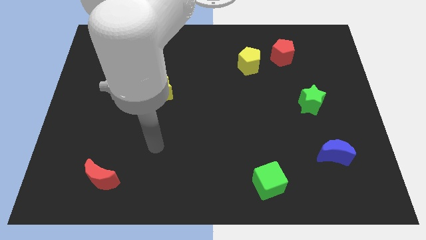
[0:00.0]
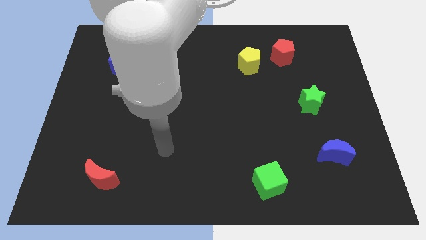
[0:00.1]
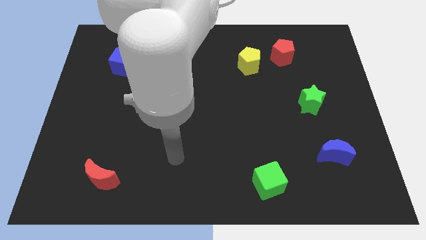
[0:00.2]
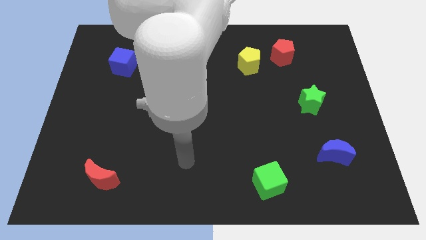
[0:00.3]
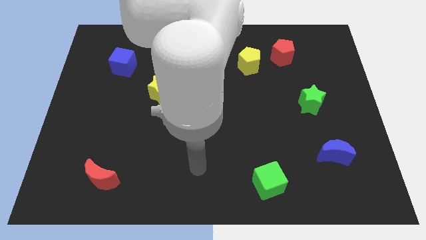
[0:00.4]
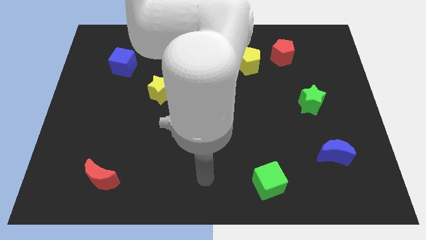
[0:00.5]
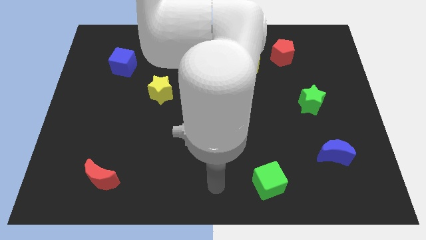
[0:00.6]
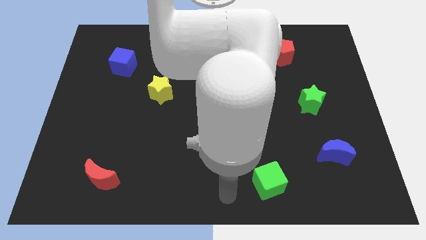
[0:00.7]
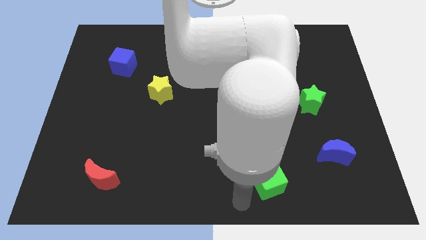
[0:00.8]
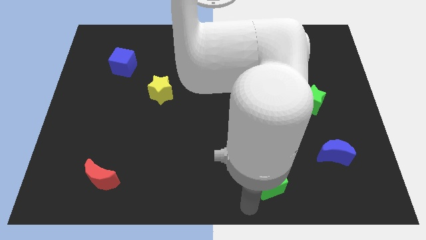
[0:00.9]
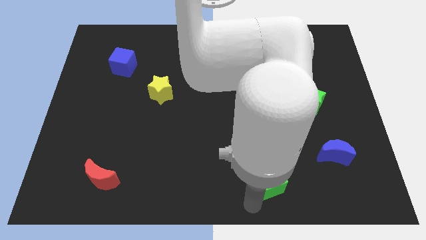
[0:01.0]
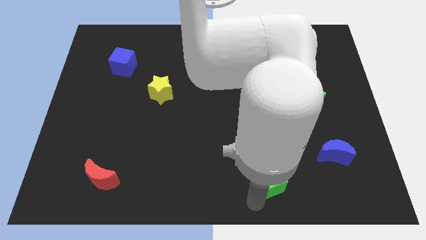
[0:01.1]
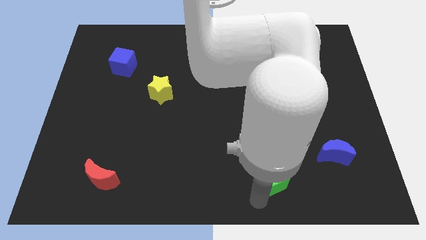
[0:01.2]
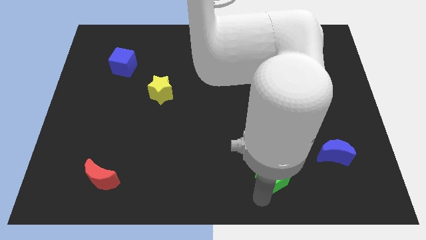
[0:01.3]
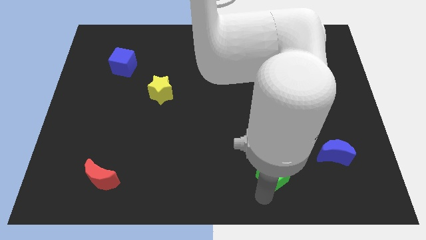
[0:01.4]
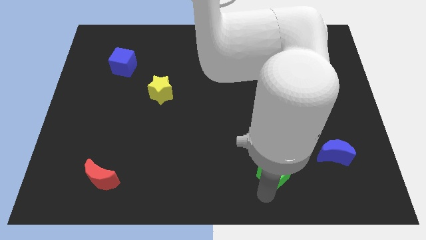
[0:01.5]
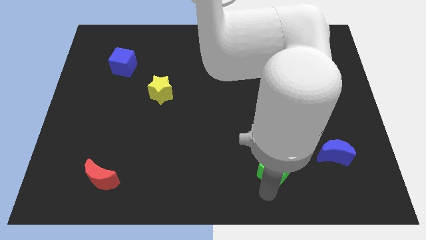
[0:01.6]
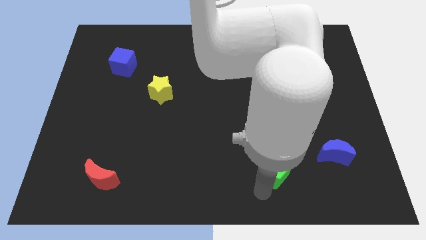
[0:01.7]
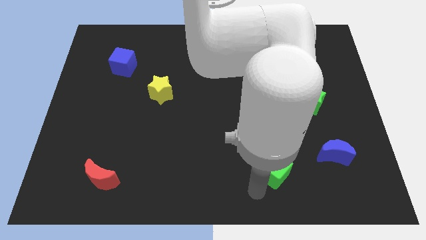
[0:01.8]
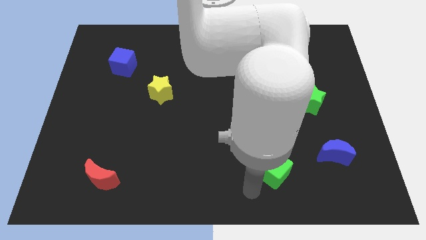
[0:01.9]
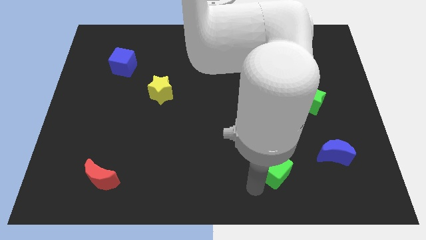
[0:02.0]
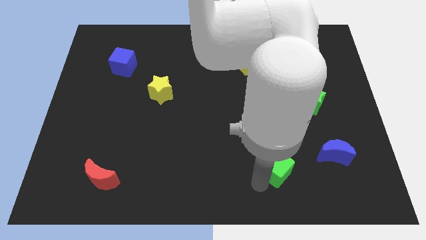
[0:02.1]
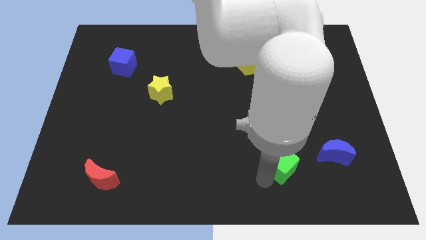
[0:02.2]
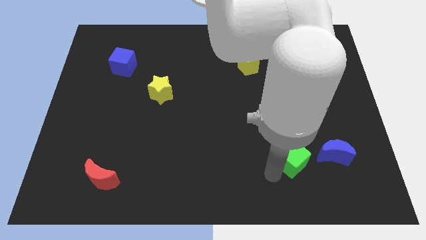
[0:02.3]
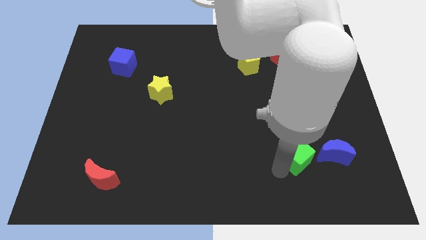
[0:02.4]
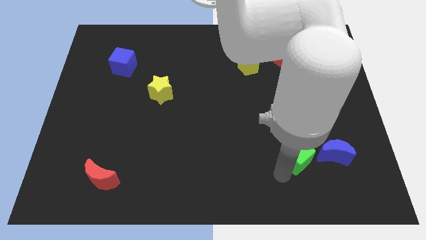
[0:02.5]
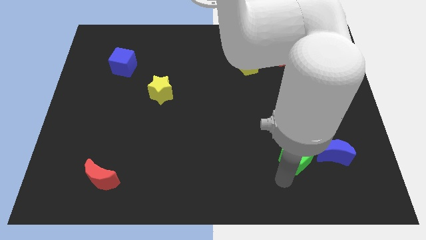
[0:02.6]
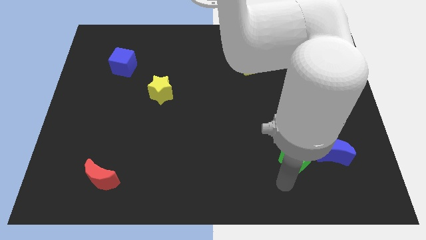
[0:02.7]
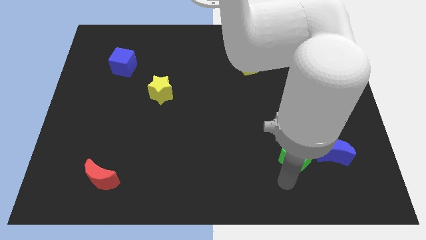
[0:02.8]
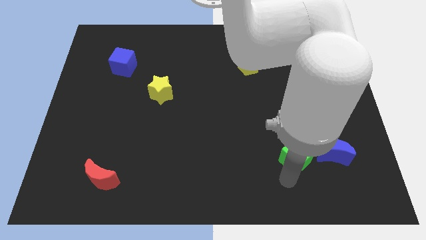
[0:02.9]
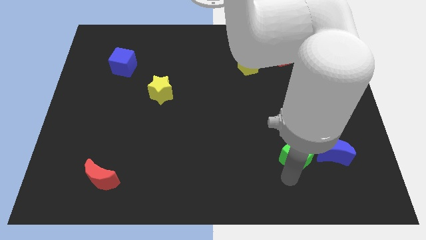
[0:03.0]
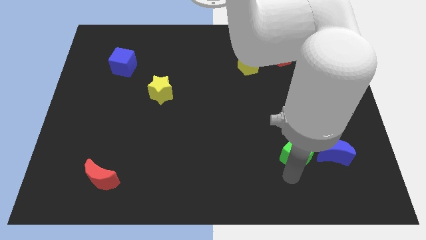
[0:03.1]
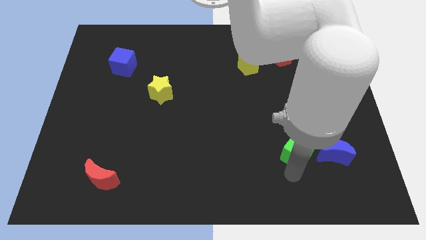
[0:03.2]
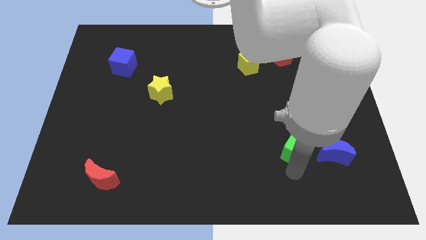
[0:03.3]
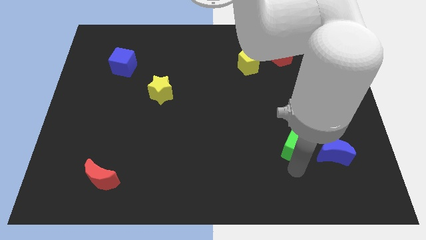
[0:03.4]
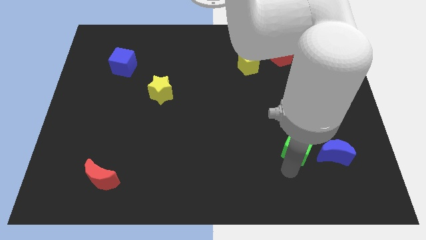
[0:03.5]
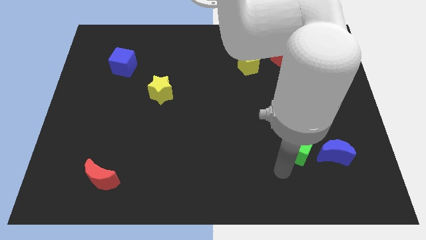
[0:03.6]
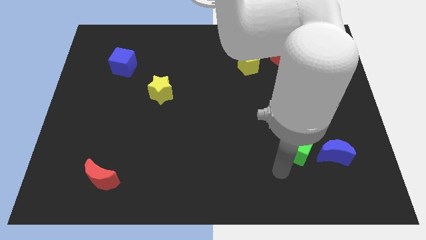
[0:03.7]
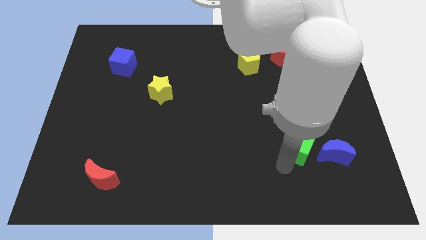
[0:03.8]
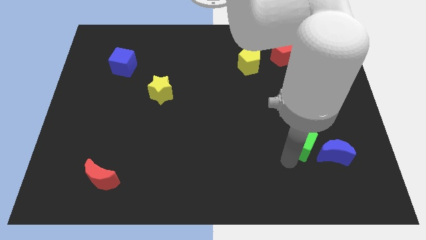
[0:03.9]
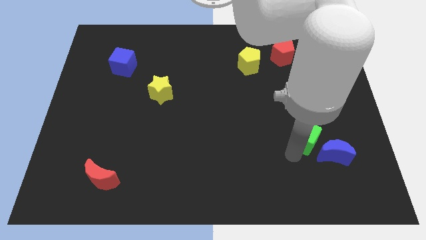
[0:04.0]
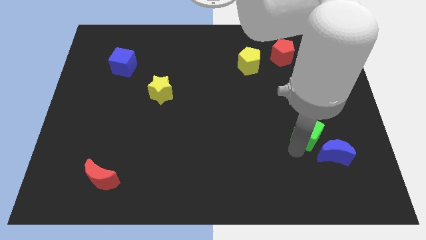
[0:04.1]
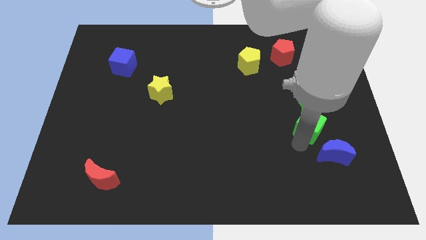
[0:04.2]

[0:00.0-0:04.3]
move the green cube above the blue moon

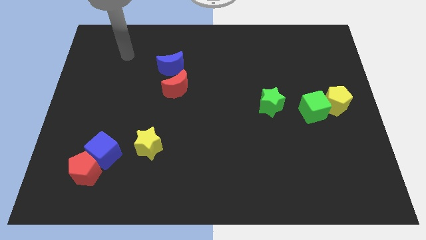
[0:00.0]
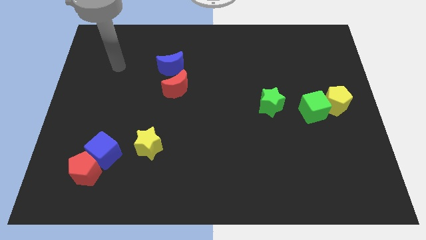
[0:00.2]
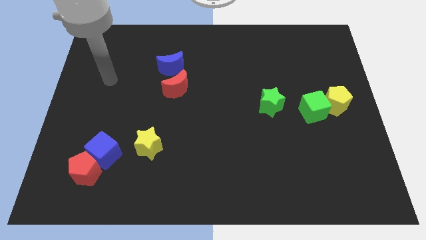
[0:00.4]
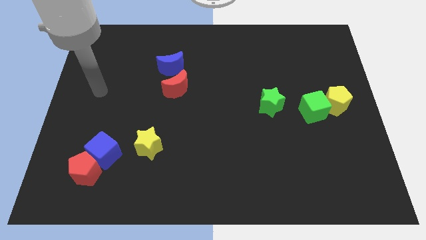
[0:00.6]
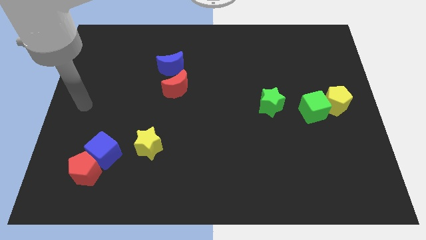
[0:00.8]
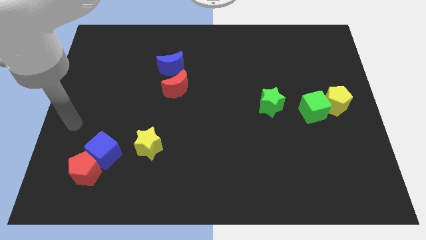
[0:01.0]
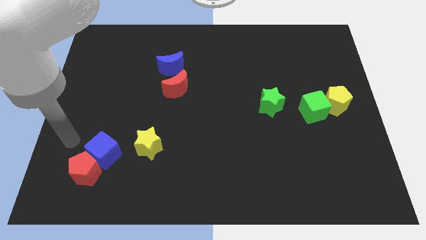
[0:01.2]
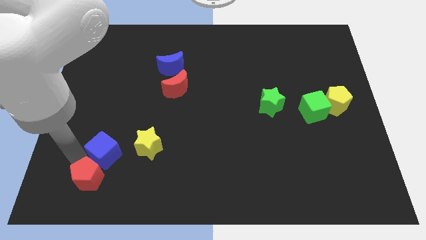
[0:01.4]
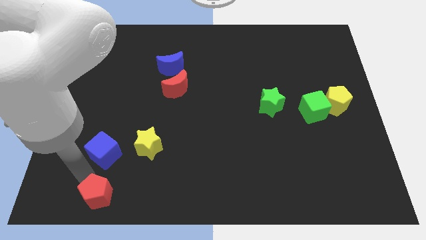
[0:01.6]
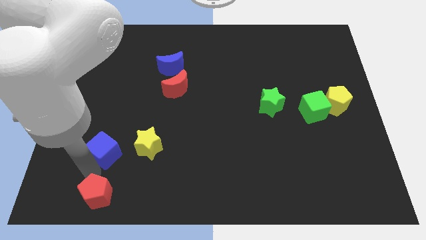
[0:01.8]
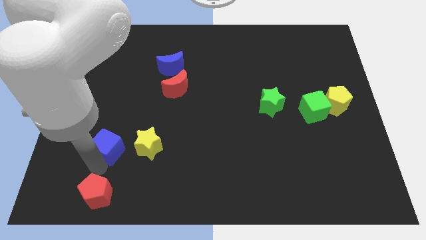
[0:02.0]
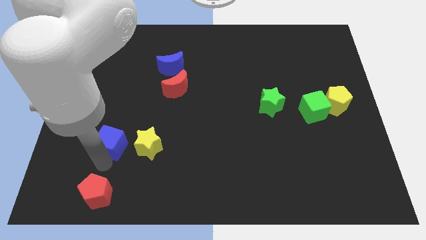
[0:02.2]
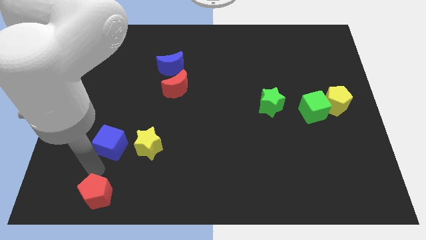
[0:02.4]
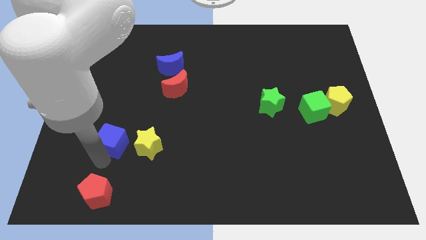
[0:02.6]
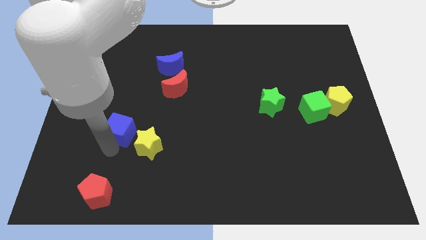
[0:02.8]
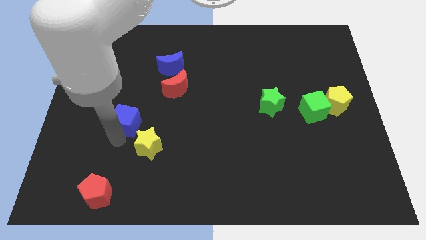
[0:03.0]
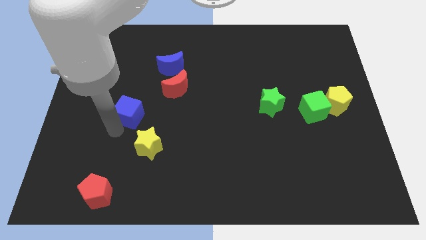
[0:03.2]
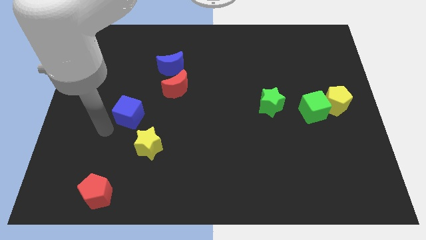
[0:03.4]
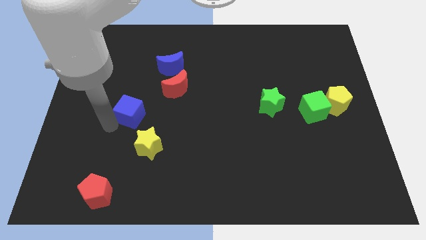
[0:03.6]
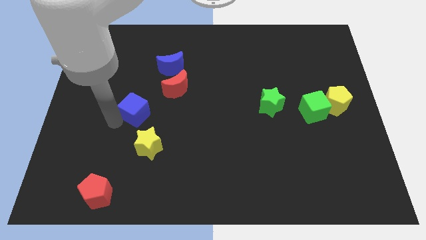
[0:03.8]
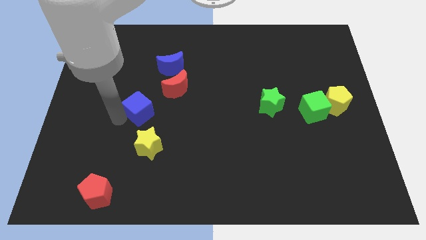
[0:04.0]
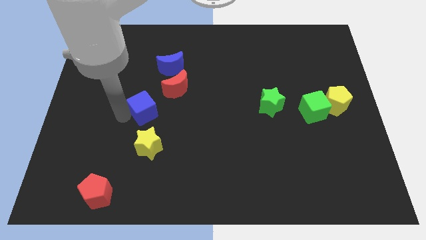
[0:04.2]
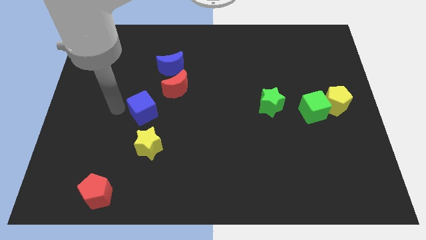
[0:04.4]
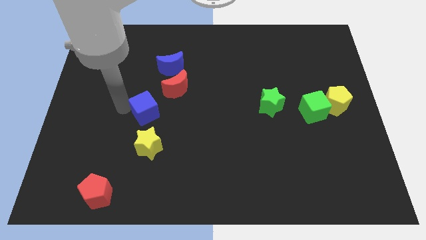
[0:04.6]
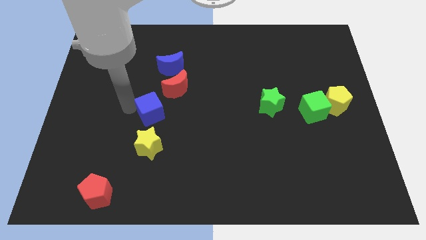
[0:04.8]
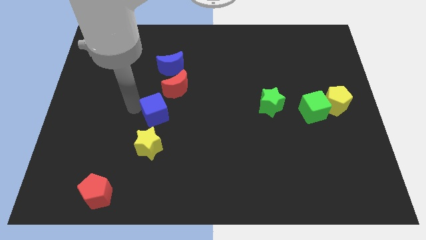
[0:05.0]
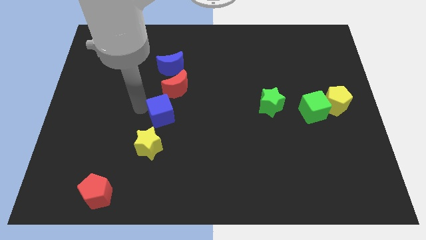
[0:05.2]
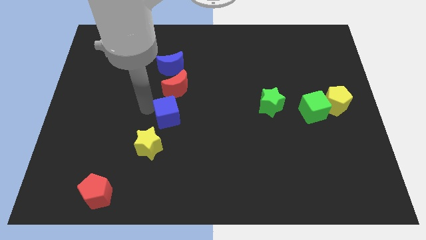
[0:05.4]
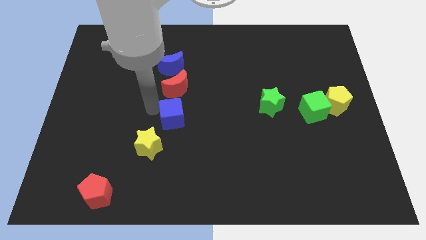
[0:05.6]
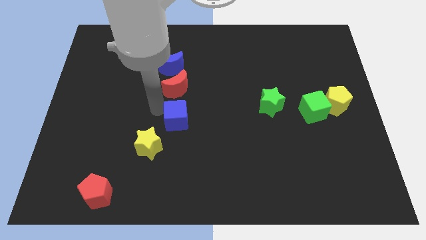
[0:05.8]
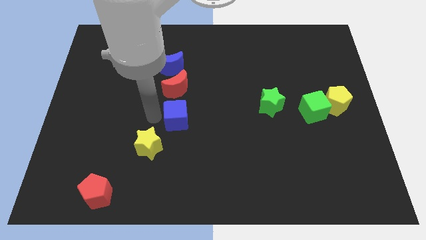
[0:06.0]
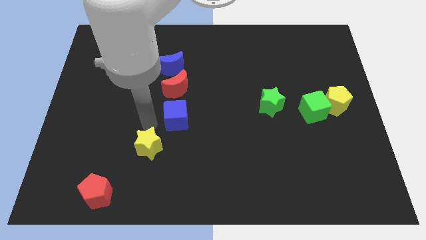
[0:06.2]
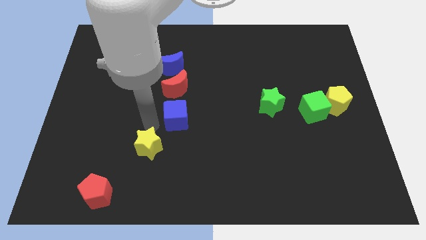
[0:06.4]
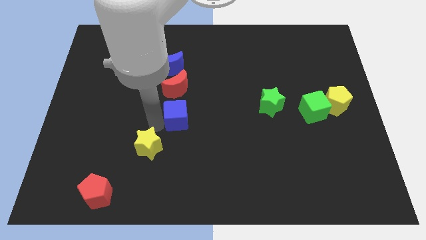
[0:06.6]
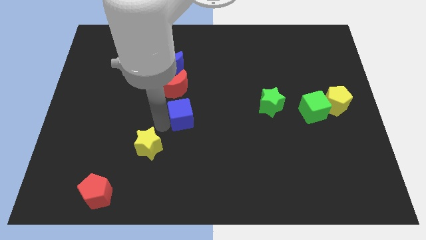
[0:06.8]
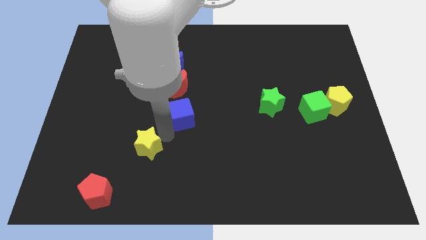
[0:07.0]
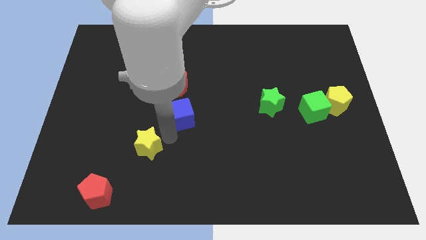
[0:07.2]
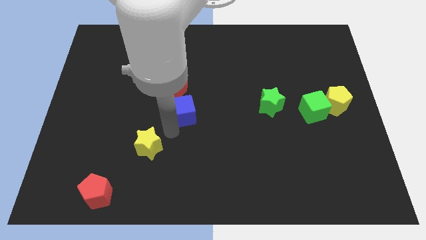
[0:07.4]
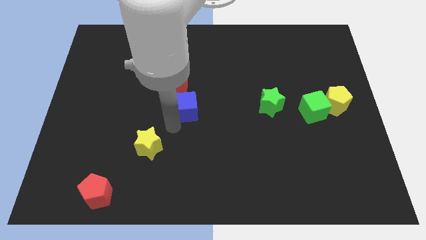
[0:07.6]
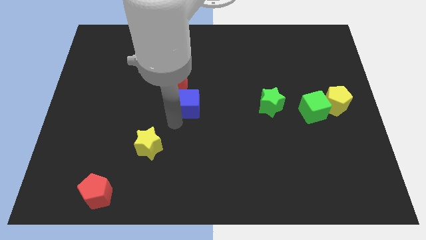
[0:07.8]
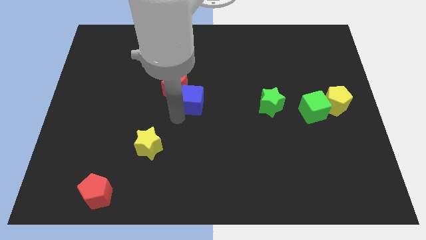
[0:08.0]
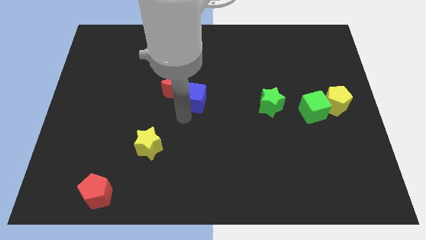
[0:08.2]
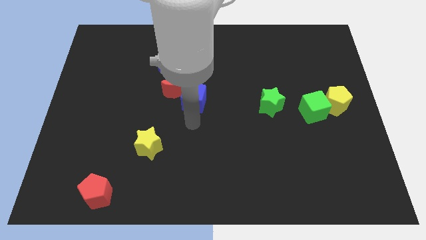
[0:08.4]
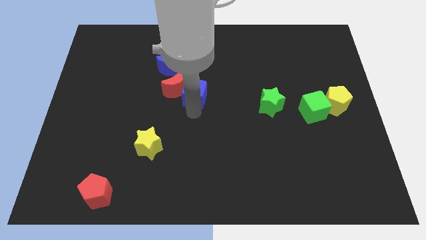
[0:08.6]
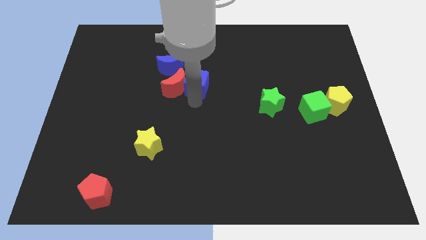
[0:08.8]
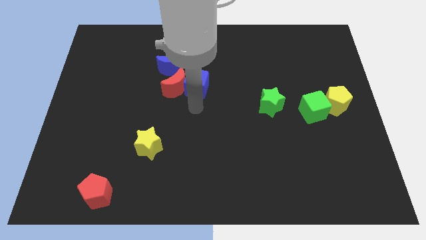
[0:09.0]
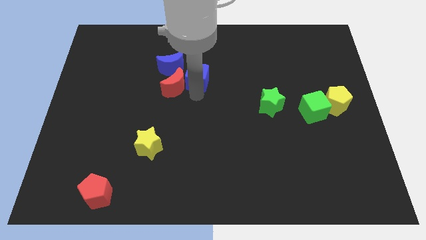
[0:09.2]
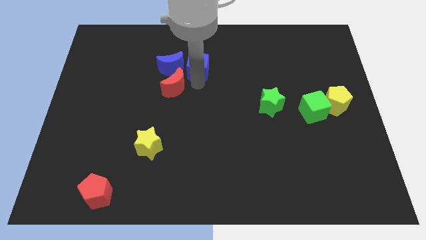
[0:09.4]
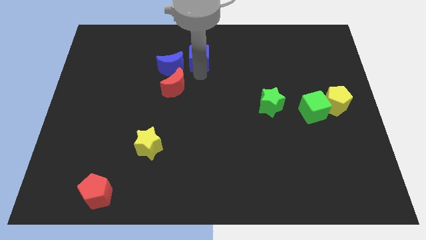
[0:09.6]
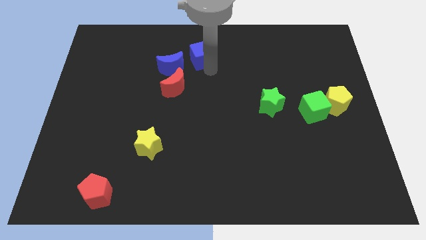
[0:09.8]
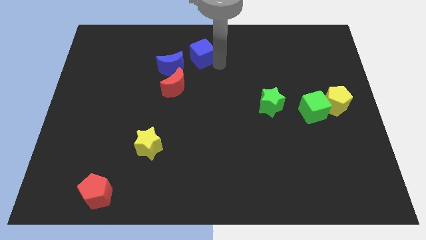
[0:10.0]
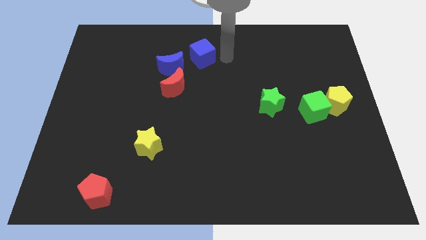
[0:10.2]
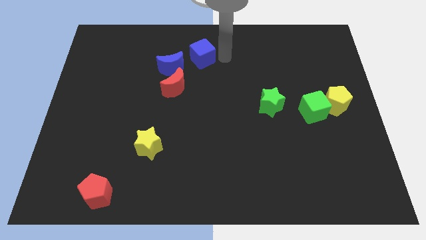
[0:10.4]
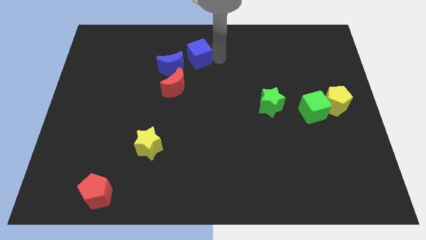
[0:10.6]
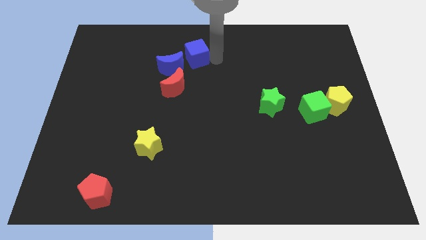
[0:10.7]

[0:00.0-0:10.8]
push the blue cube to the top of the red moon
